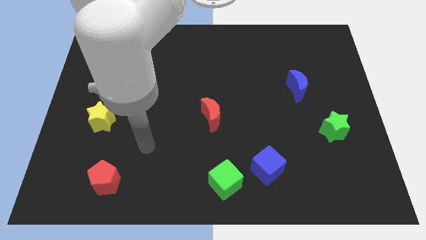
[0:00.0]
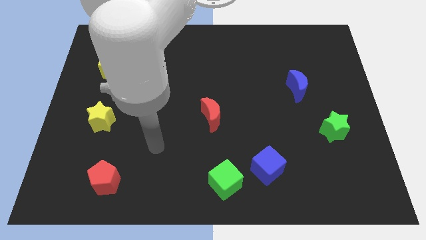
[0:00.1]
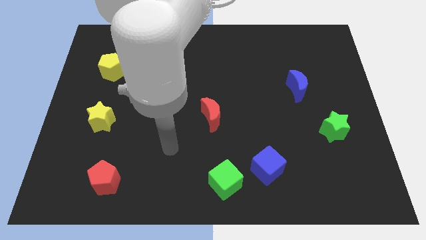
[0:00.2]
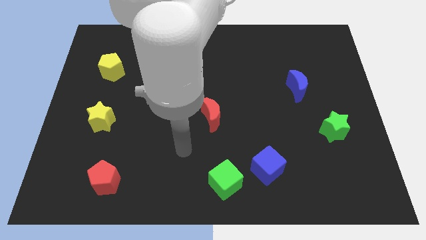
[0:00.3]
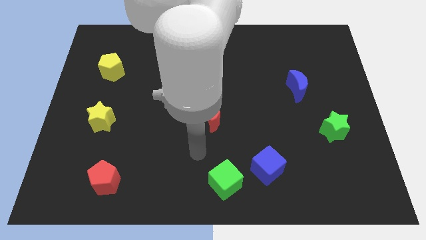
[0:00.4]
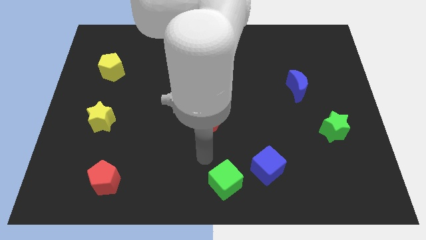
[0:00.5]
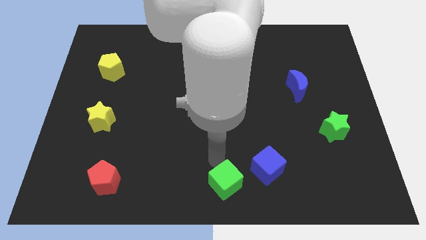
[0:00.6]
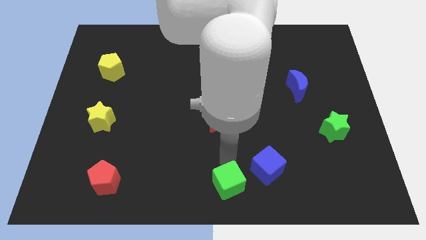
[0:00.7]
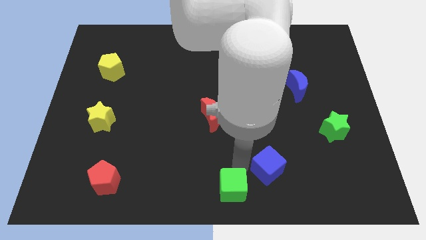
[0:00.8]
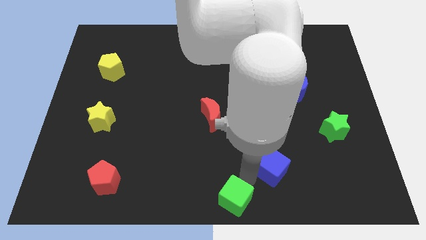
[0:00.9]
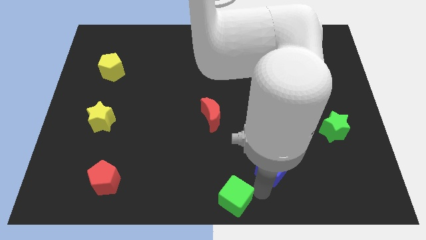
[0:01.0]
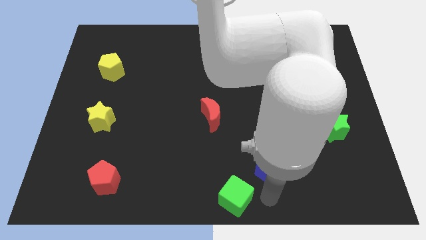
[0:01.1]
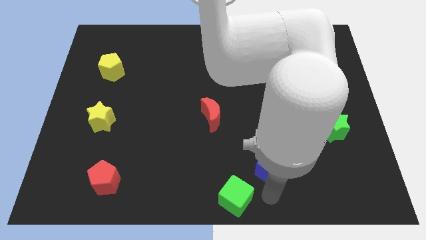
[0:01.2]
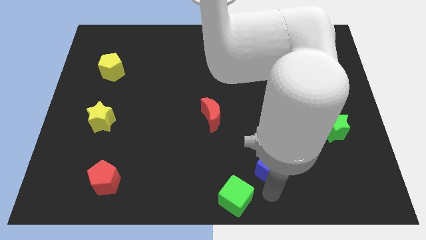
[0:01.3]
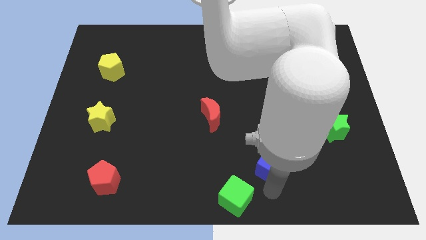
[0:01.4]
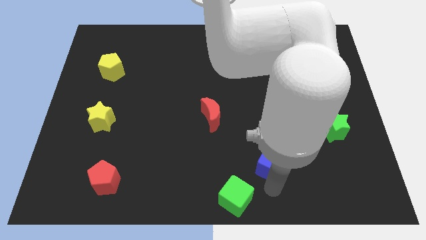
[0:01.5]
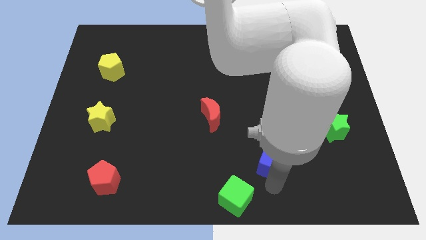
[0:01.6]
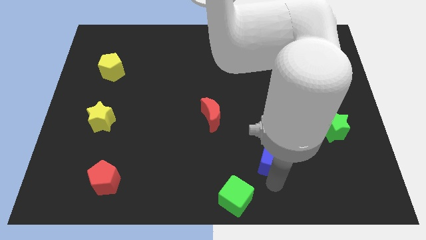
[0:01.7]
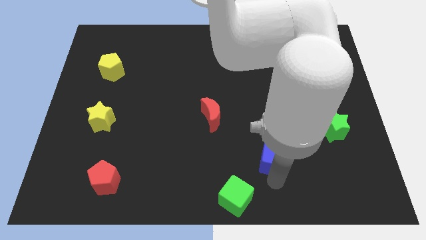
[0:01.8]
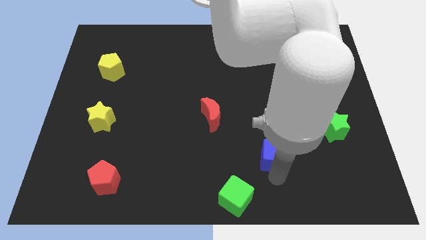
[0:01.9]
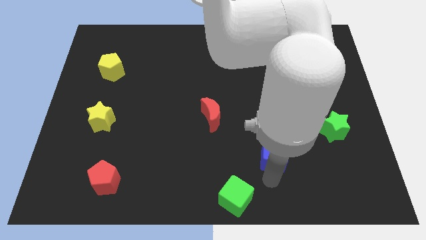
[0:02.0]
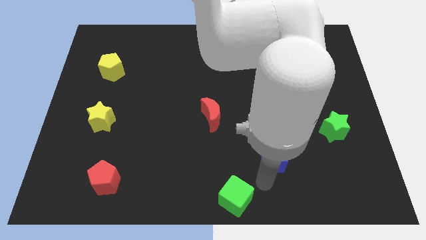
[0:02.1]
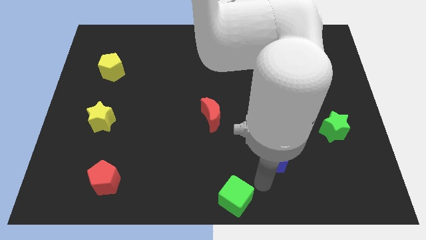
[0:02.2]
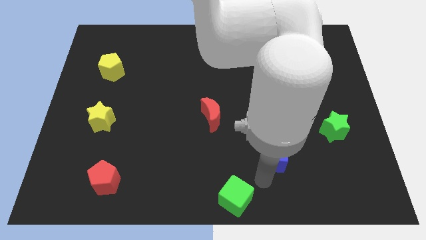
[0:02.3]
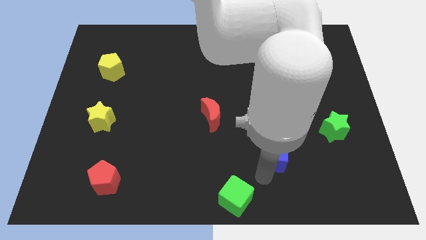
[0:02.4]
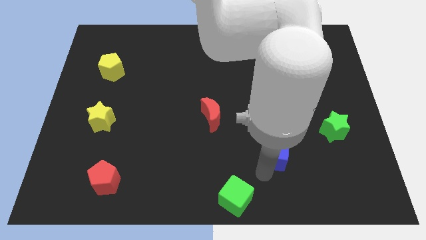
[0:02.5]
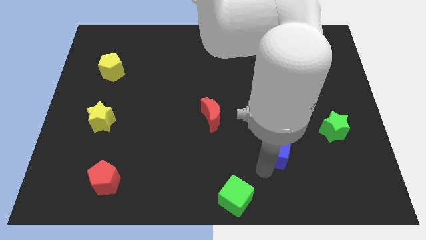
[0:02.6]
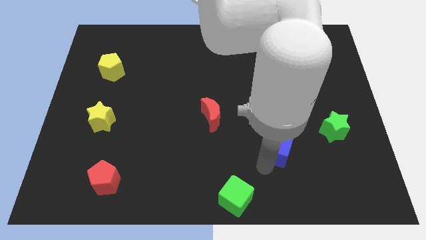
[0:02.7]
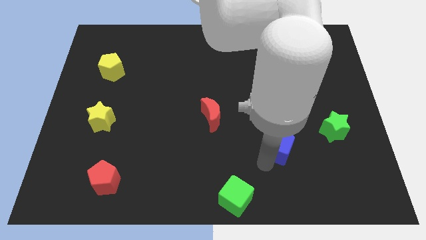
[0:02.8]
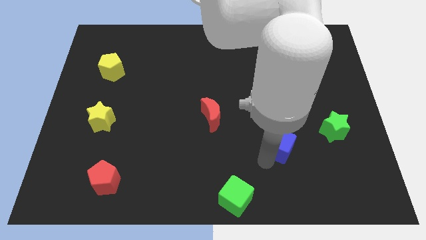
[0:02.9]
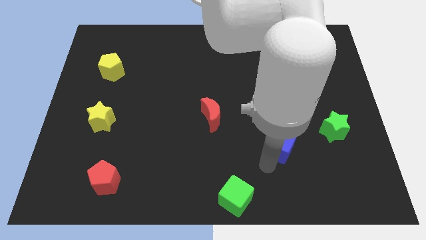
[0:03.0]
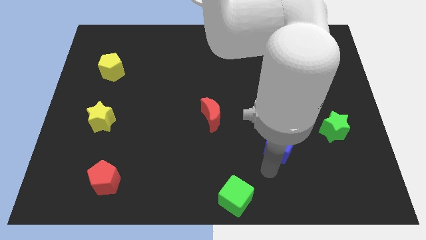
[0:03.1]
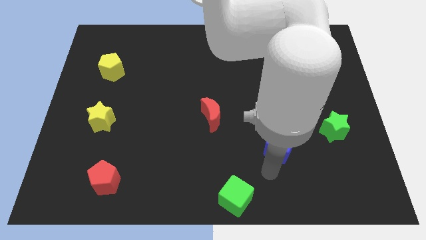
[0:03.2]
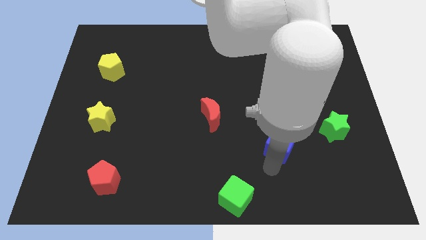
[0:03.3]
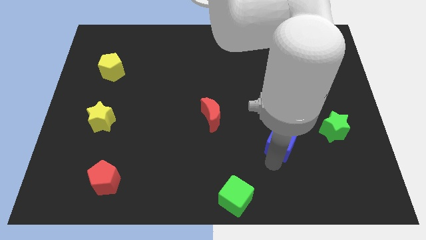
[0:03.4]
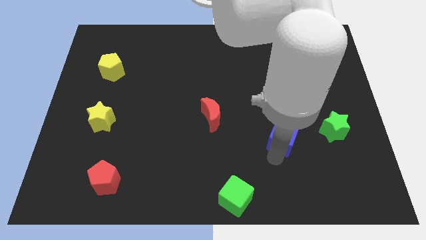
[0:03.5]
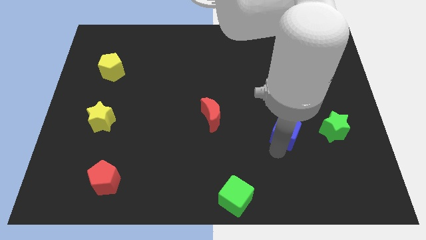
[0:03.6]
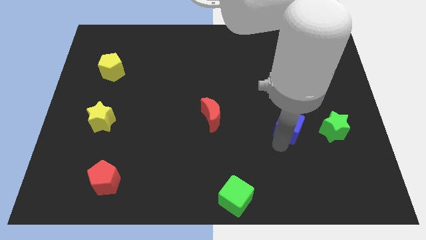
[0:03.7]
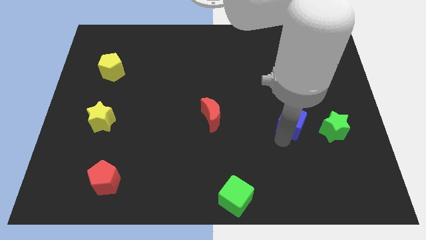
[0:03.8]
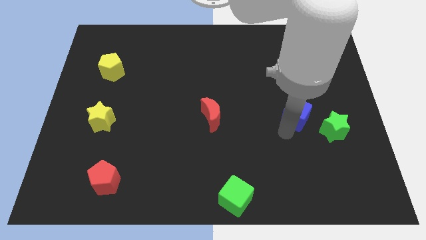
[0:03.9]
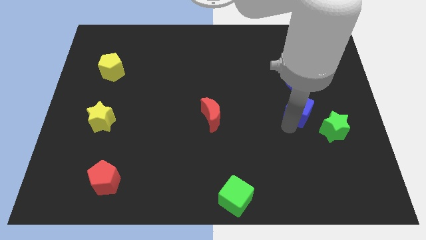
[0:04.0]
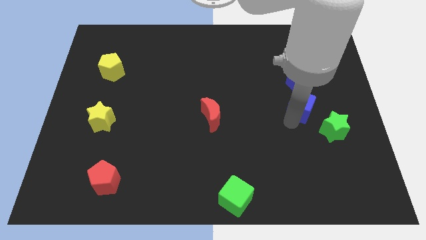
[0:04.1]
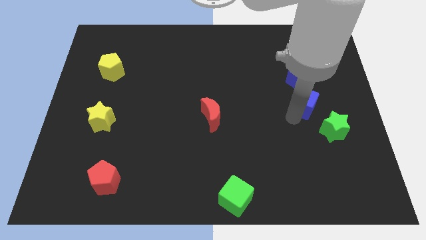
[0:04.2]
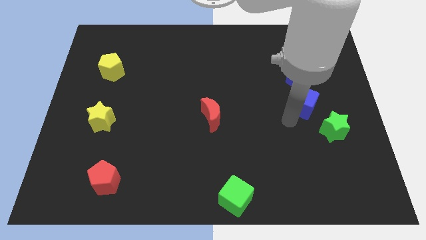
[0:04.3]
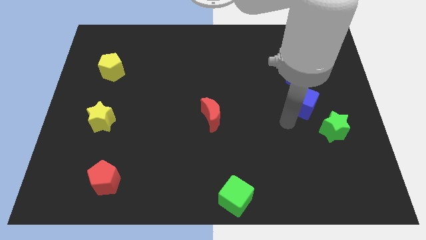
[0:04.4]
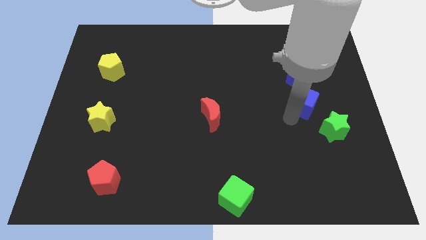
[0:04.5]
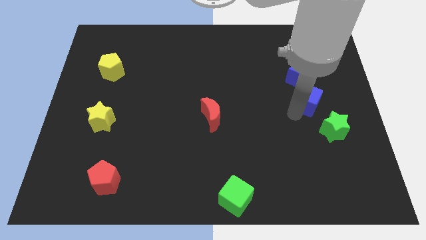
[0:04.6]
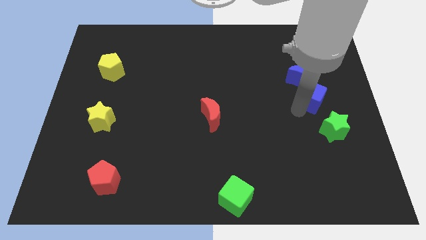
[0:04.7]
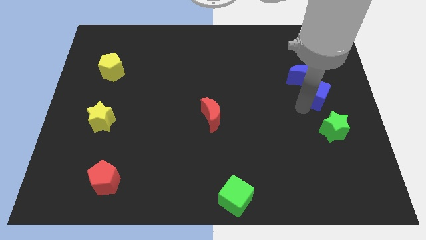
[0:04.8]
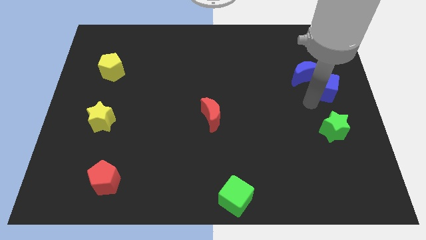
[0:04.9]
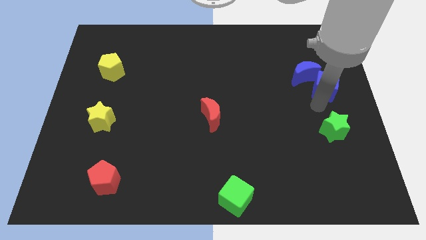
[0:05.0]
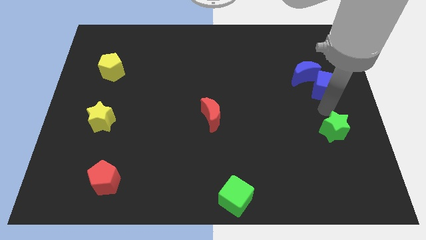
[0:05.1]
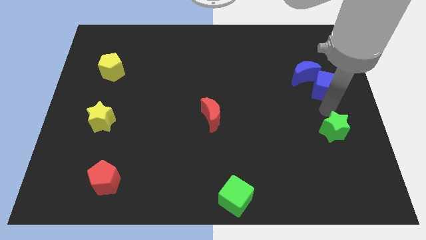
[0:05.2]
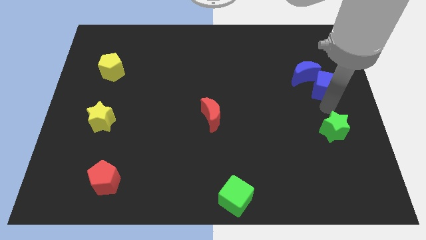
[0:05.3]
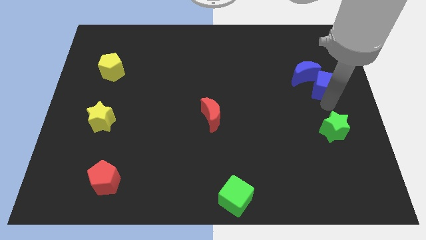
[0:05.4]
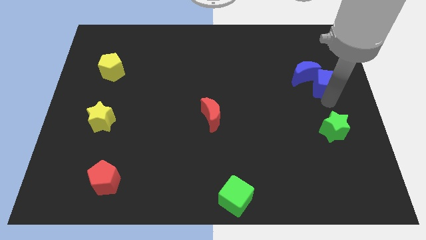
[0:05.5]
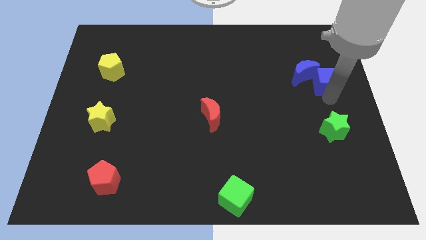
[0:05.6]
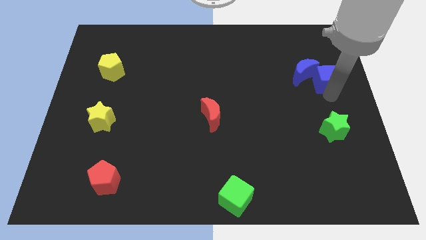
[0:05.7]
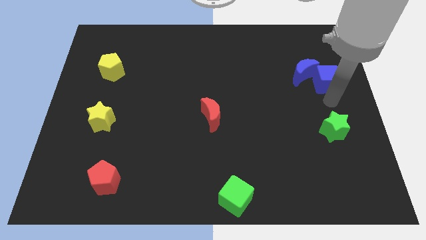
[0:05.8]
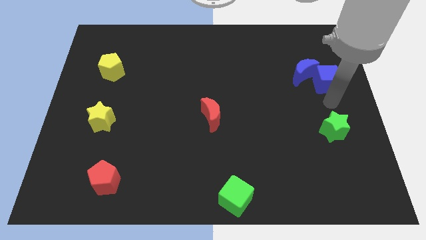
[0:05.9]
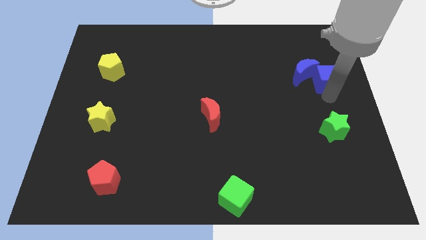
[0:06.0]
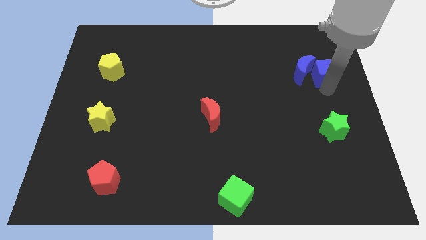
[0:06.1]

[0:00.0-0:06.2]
move the blue cube to the top right of the blue moon

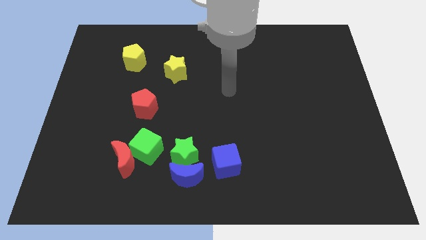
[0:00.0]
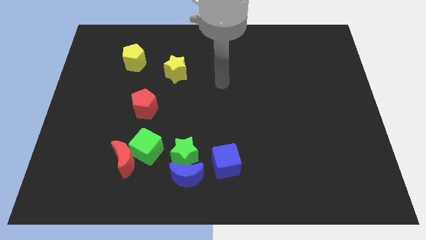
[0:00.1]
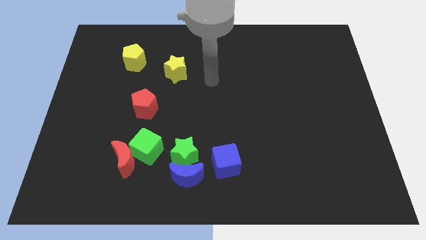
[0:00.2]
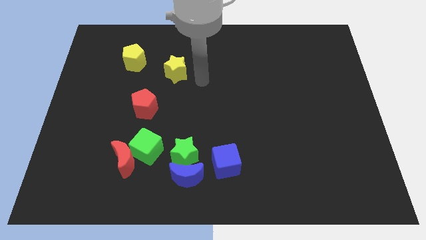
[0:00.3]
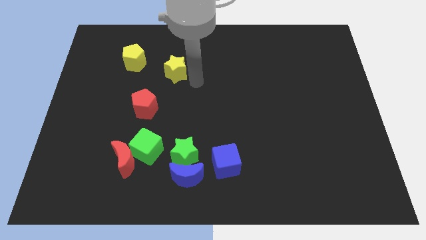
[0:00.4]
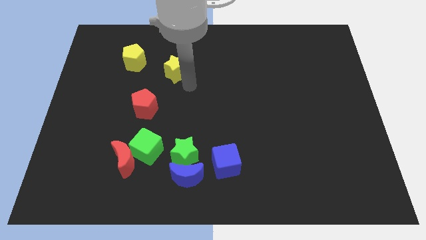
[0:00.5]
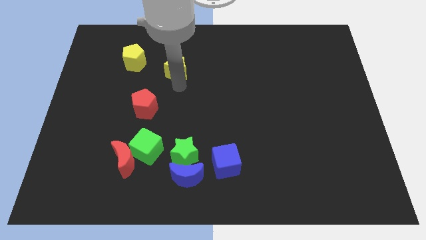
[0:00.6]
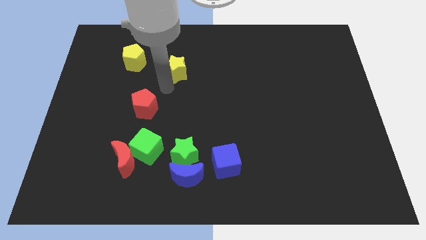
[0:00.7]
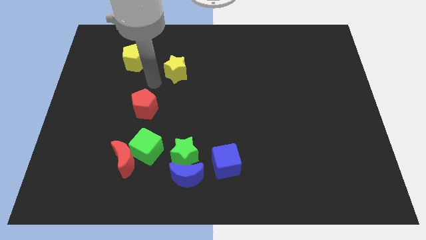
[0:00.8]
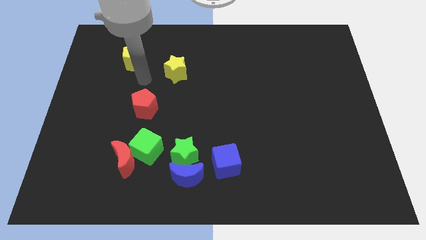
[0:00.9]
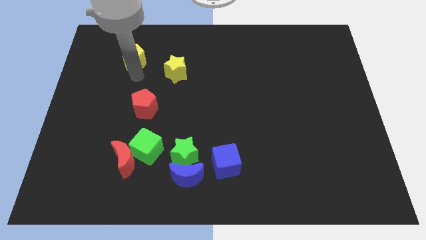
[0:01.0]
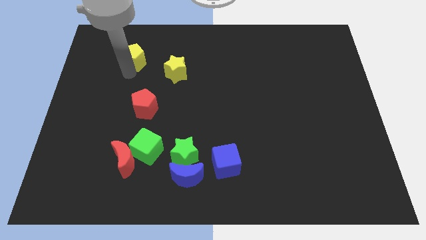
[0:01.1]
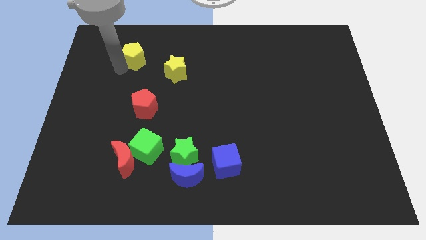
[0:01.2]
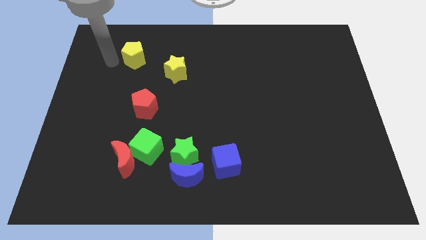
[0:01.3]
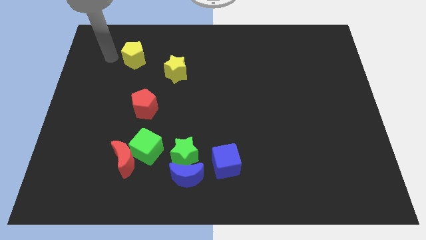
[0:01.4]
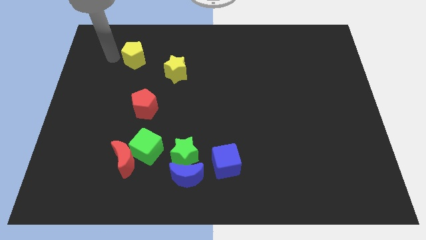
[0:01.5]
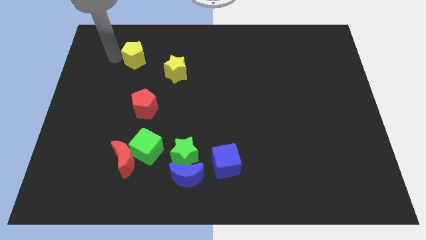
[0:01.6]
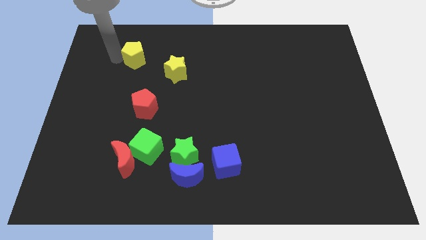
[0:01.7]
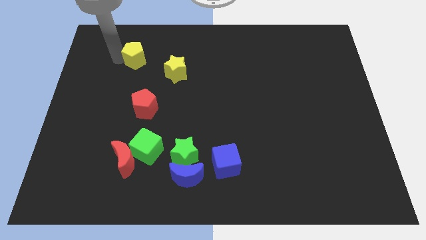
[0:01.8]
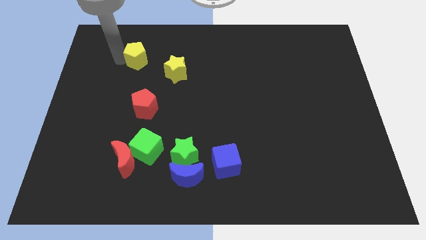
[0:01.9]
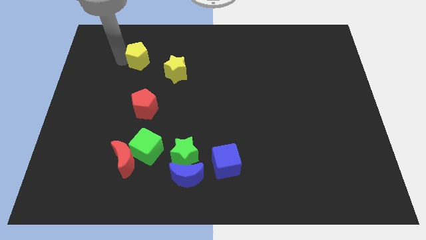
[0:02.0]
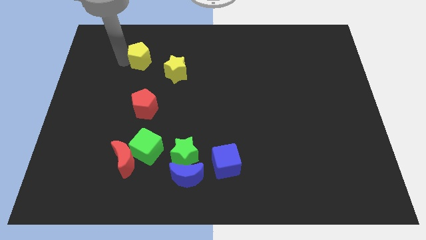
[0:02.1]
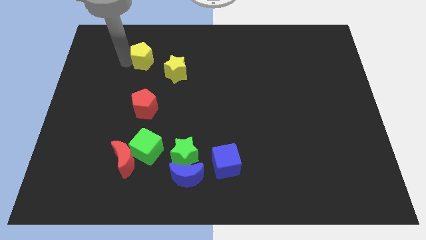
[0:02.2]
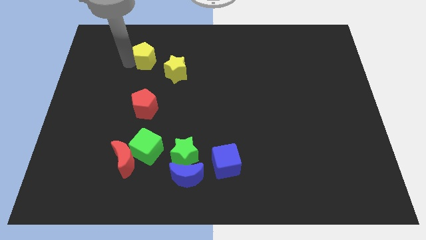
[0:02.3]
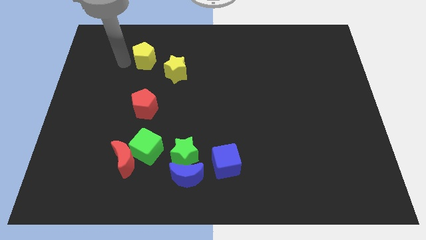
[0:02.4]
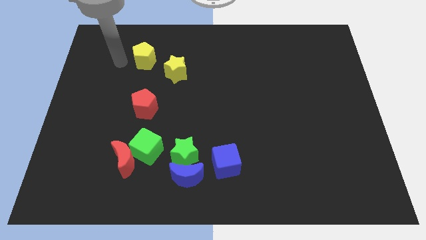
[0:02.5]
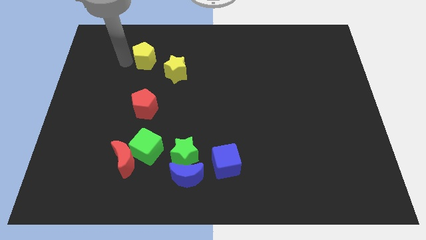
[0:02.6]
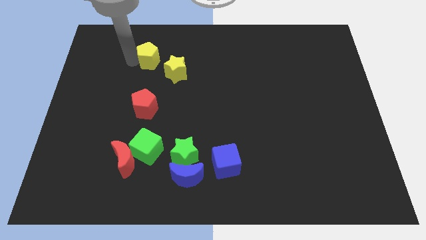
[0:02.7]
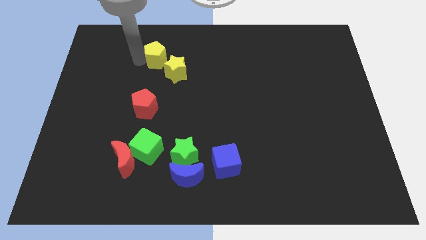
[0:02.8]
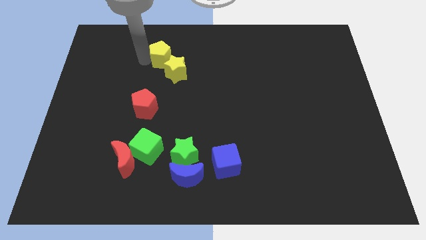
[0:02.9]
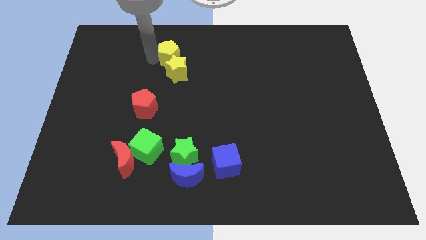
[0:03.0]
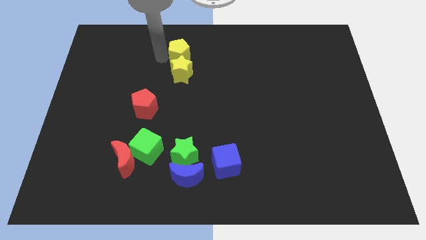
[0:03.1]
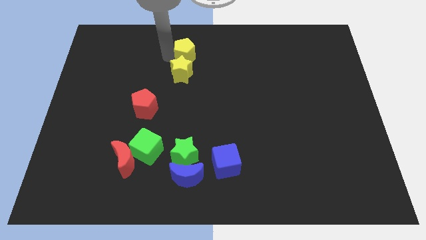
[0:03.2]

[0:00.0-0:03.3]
push the yellow pentagon diagonally up and to the right of the yellow star
